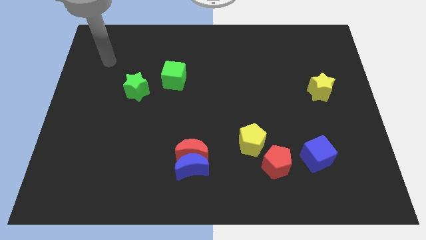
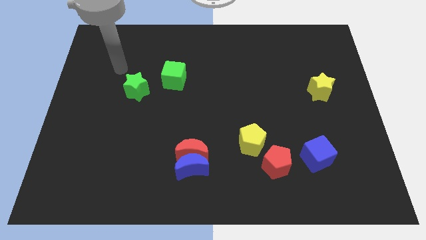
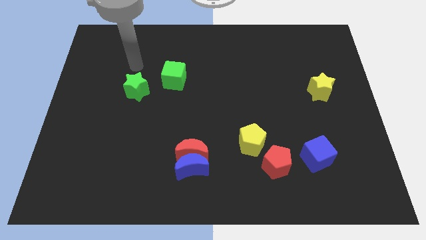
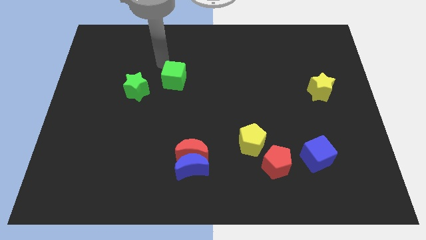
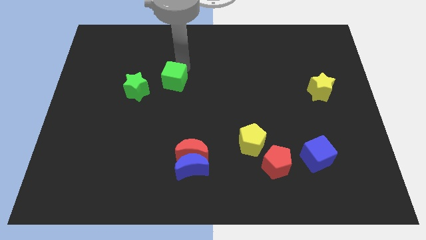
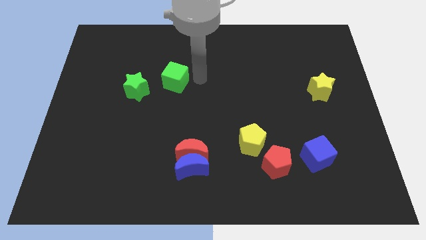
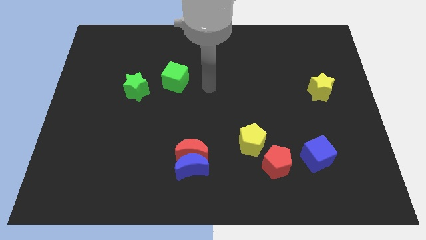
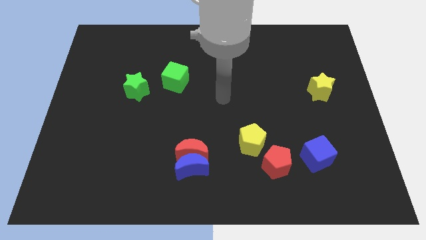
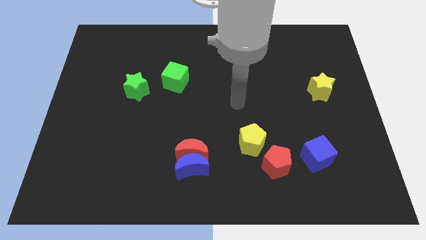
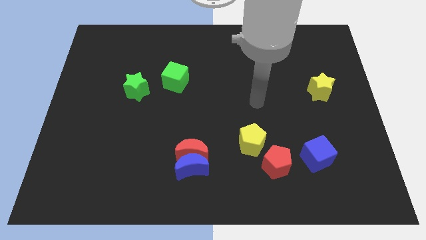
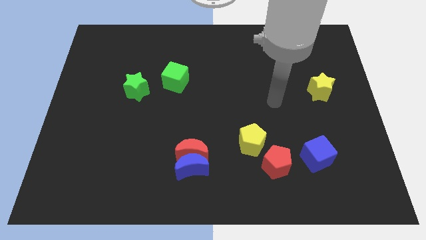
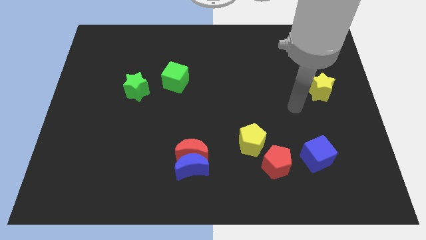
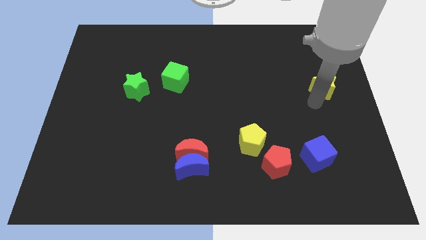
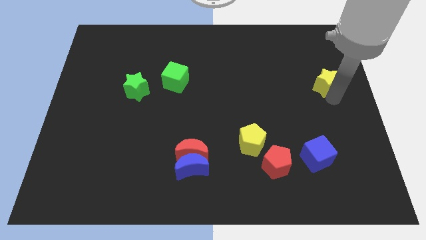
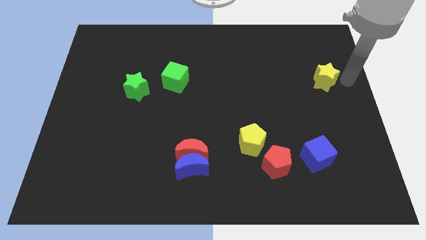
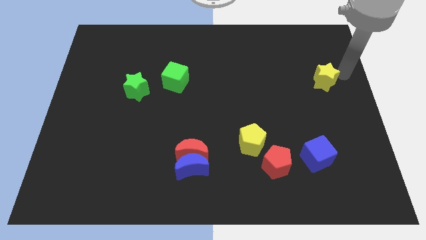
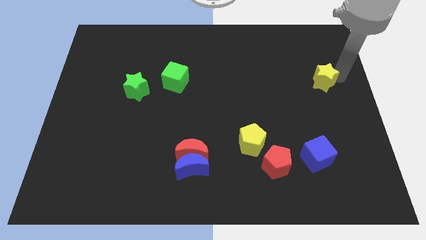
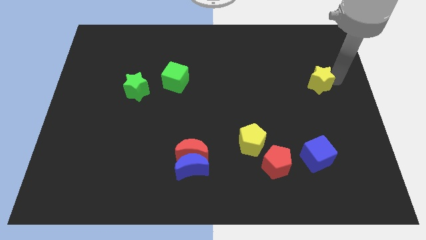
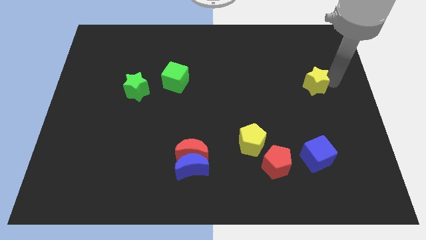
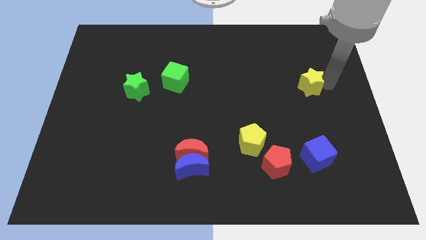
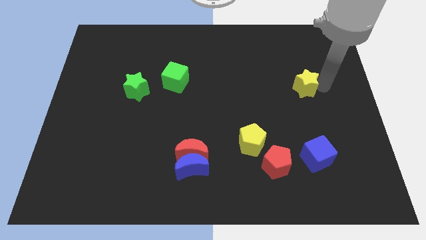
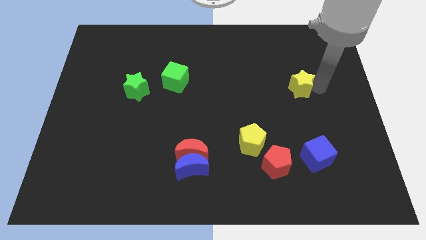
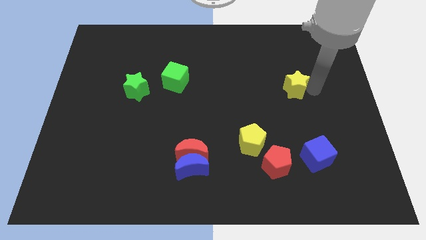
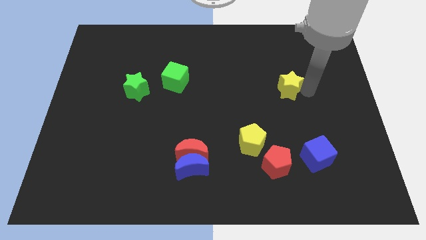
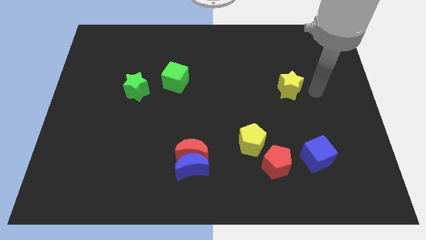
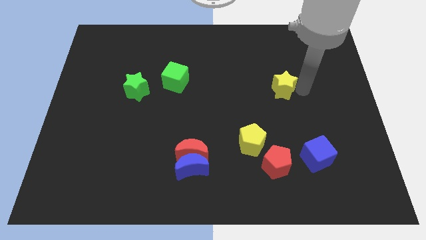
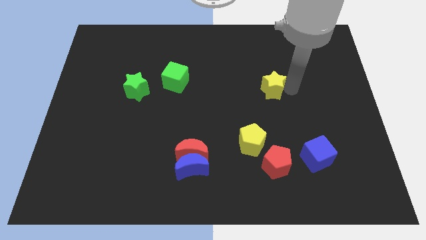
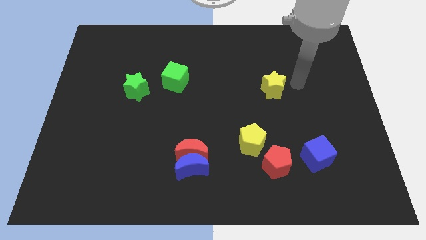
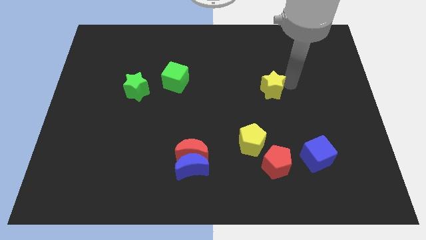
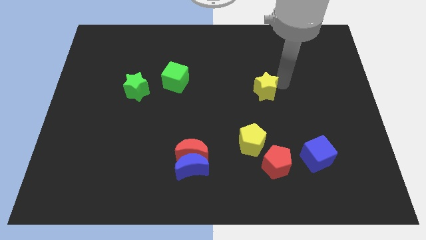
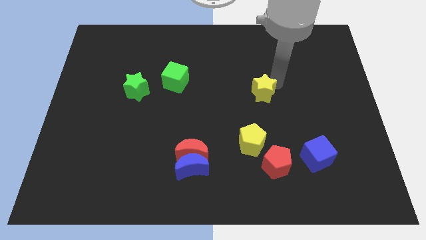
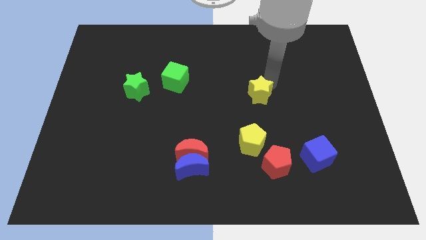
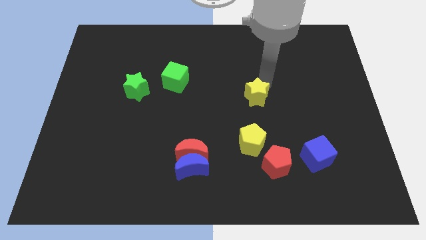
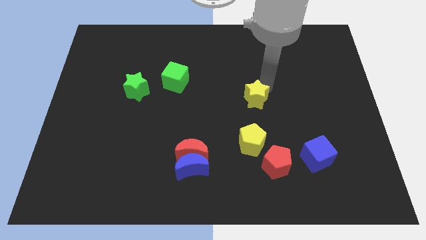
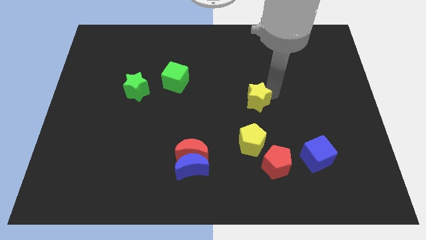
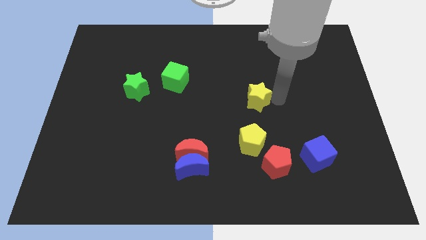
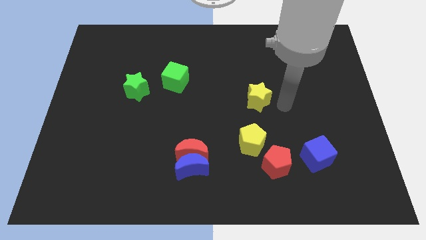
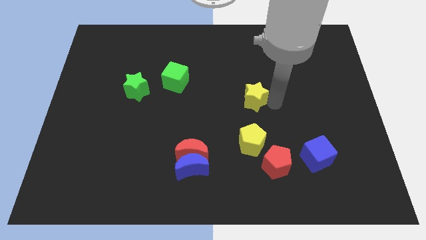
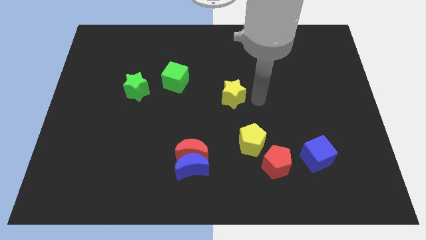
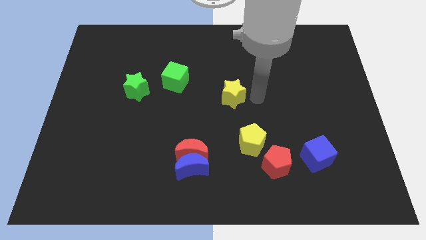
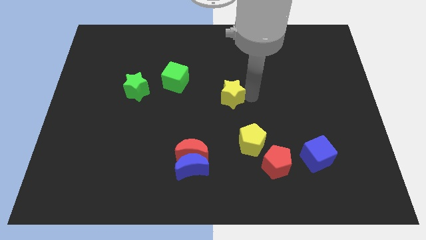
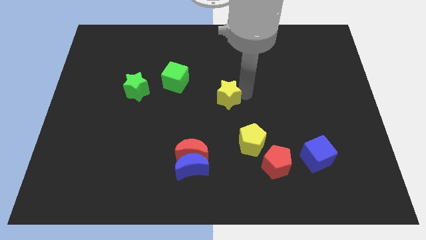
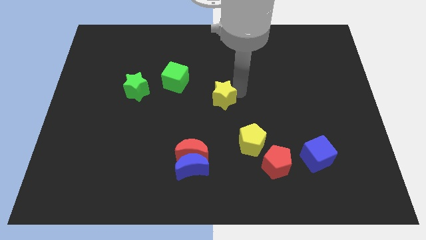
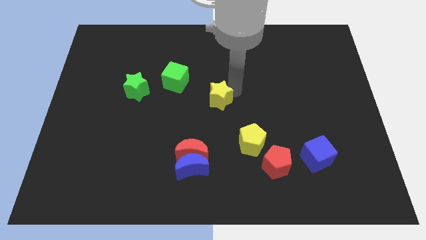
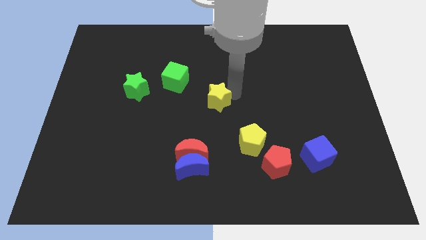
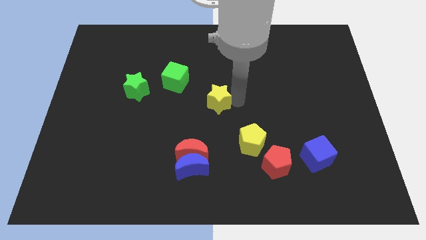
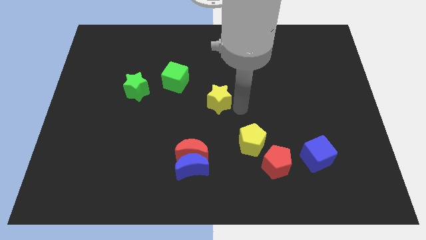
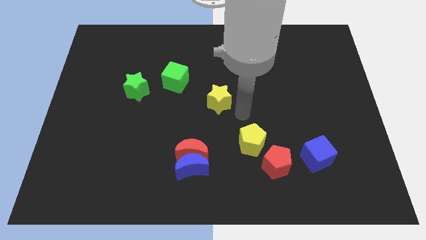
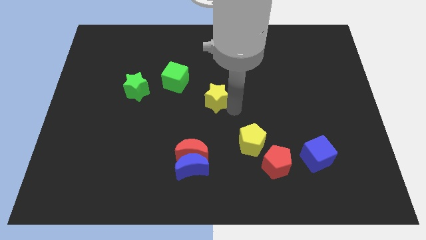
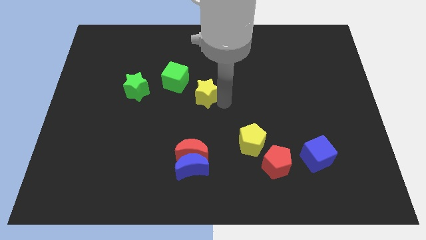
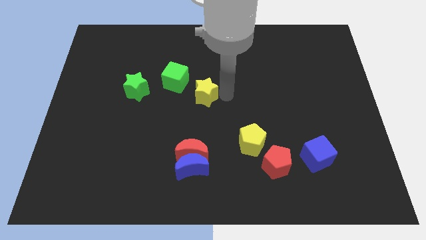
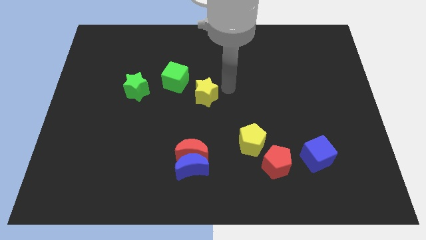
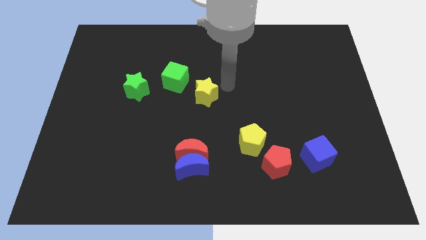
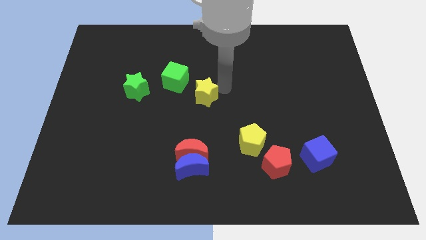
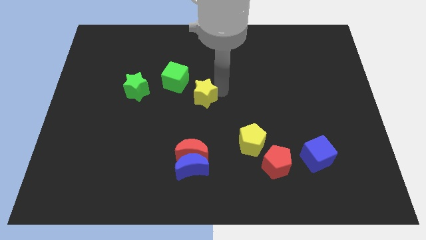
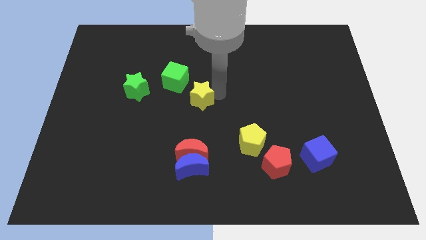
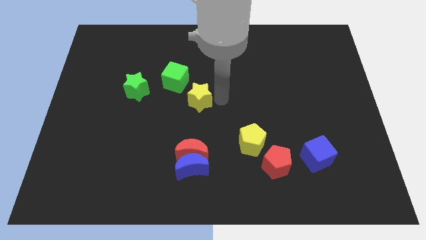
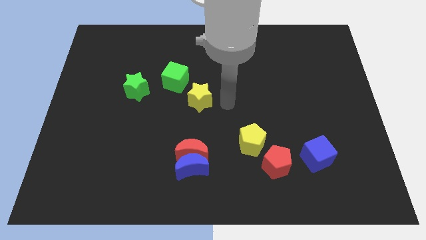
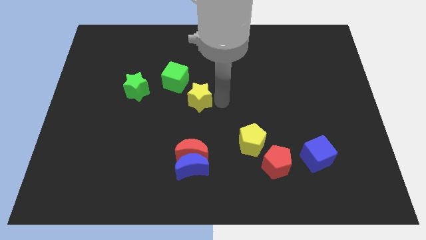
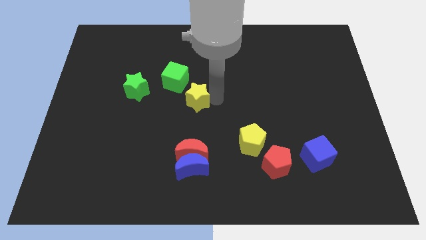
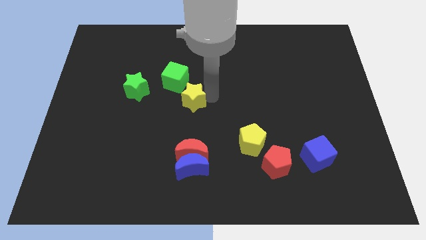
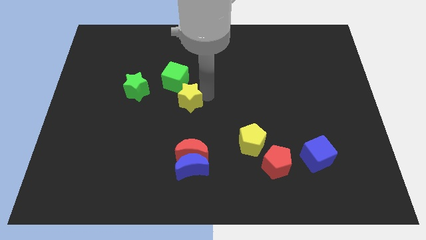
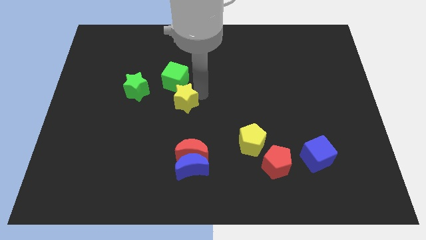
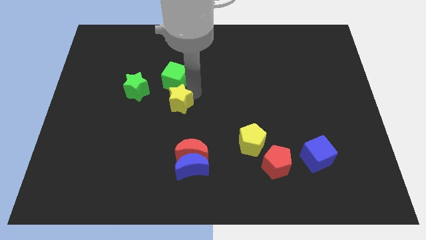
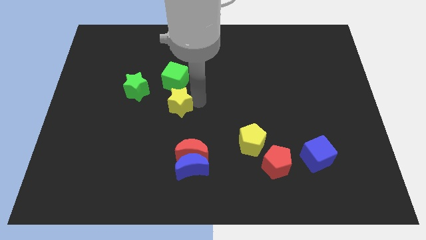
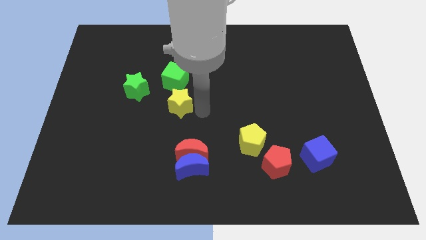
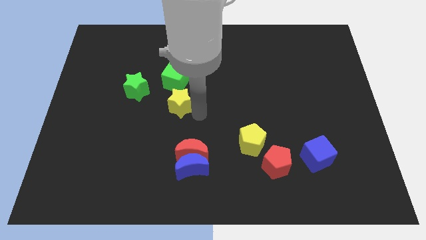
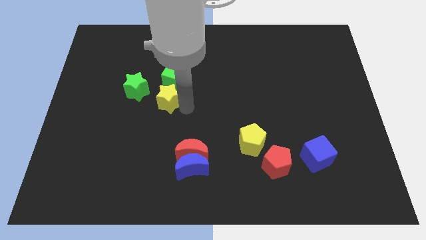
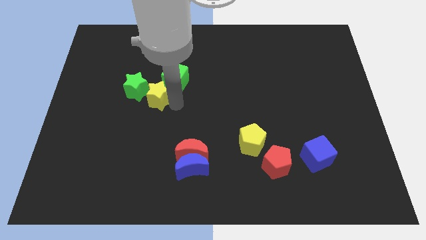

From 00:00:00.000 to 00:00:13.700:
push the yellow star towards the green star

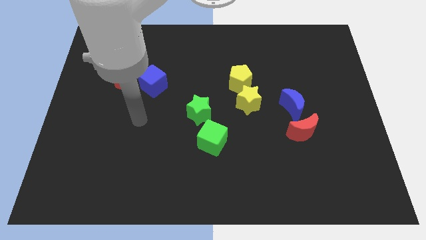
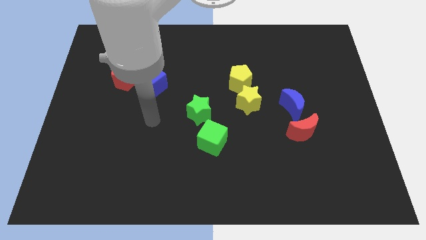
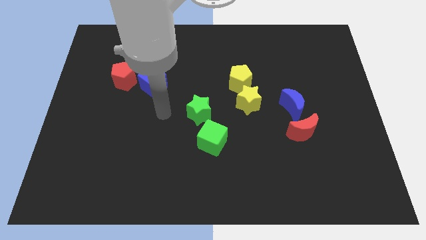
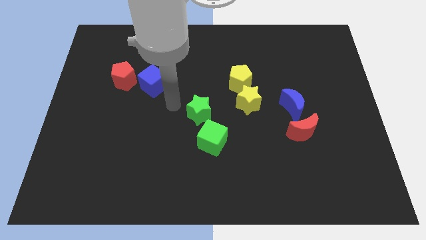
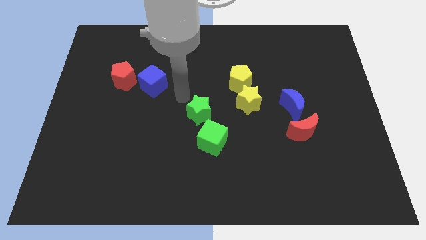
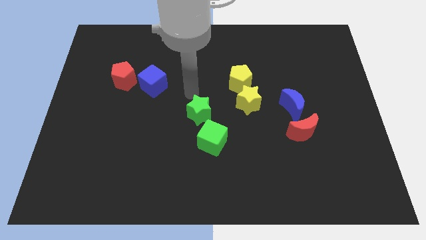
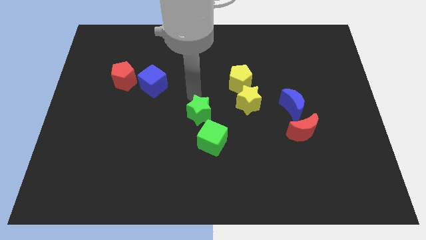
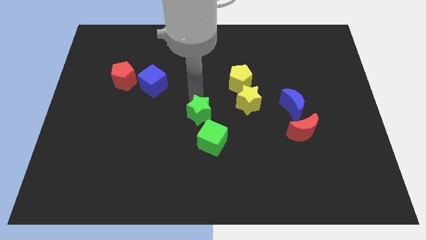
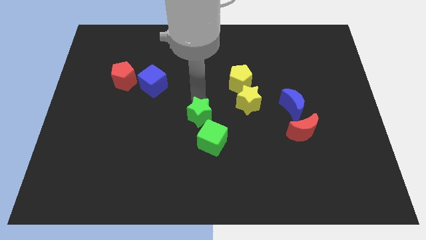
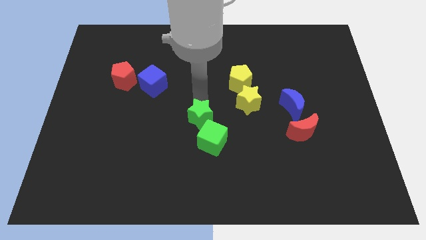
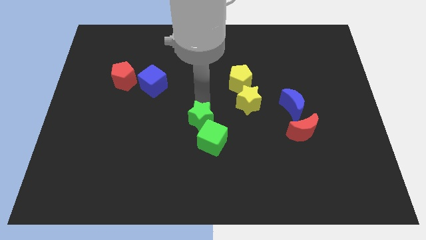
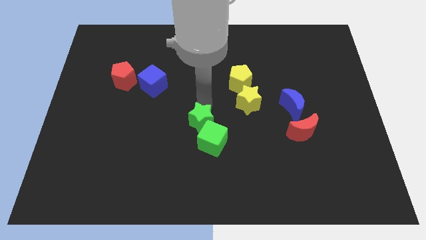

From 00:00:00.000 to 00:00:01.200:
slide the green star towards the green cube
